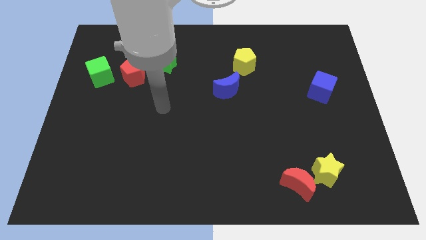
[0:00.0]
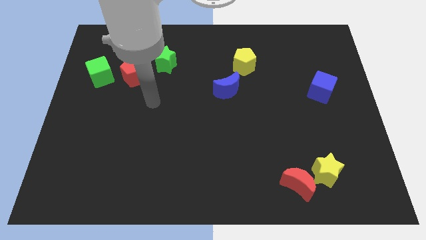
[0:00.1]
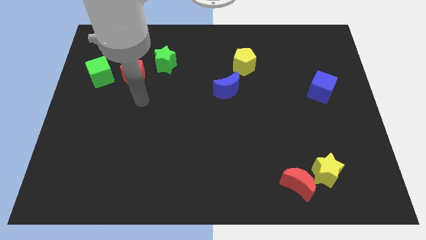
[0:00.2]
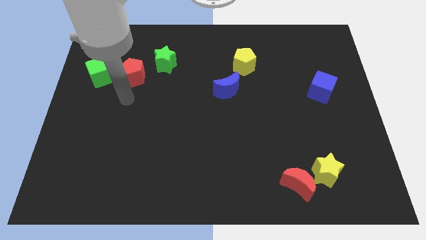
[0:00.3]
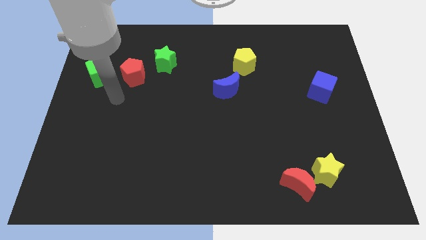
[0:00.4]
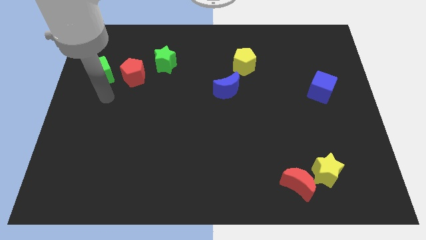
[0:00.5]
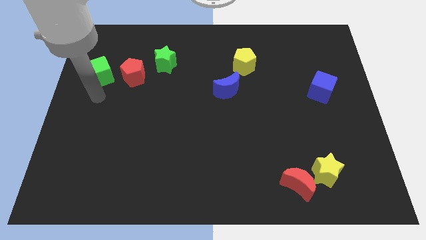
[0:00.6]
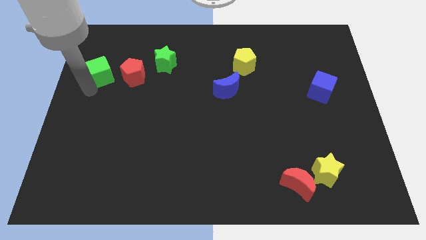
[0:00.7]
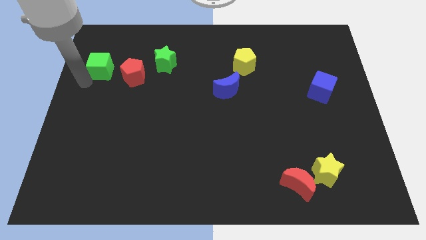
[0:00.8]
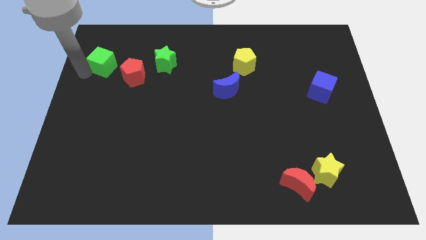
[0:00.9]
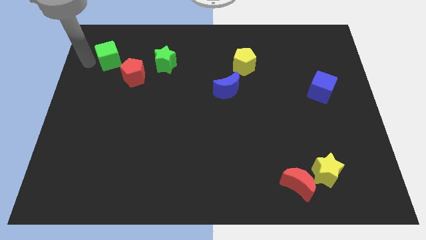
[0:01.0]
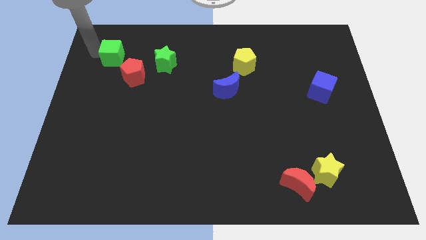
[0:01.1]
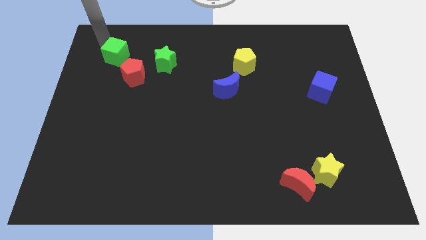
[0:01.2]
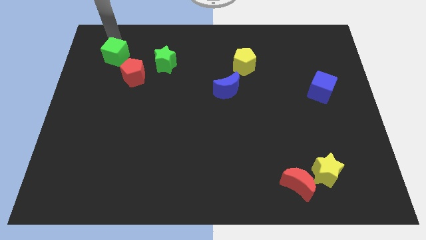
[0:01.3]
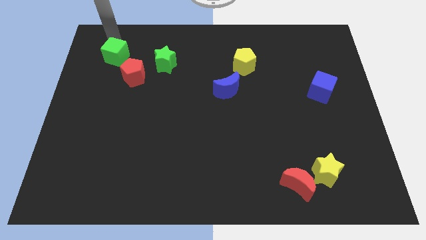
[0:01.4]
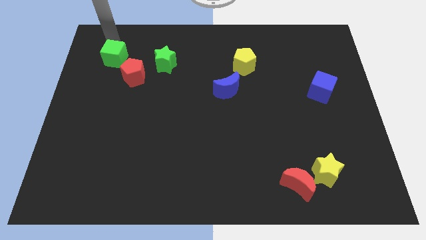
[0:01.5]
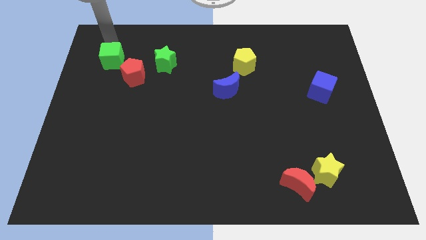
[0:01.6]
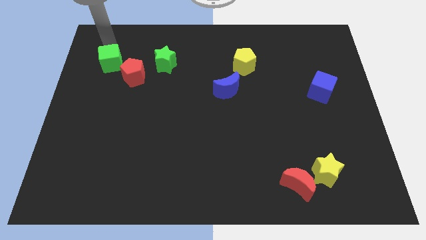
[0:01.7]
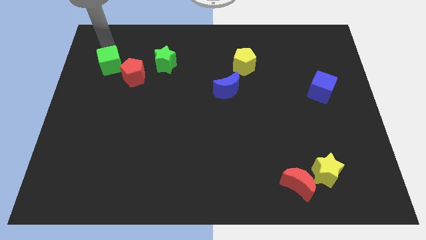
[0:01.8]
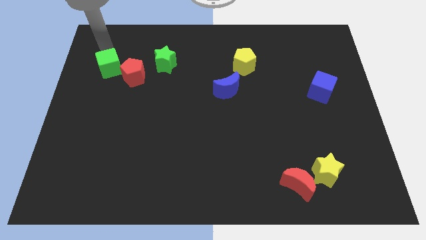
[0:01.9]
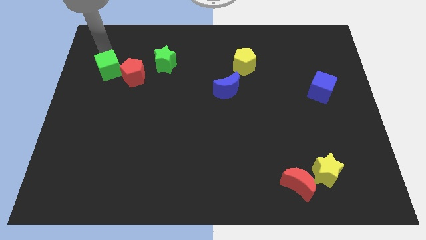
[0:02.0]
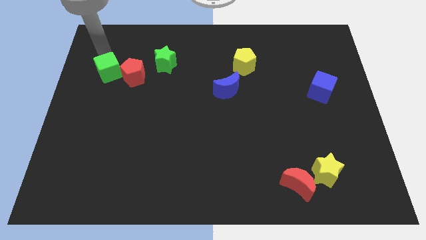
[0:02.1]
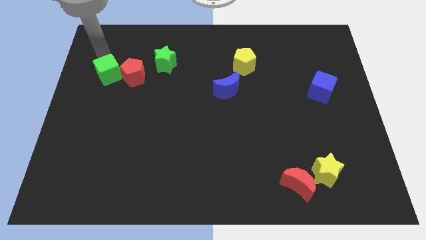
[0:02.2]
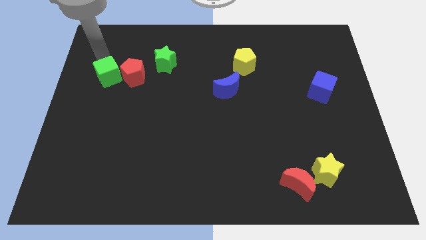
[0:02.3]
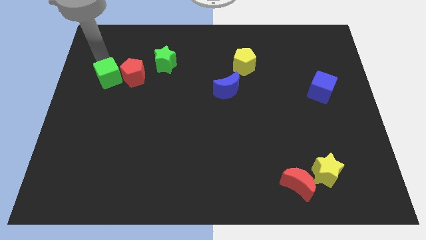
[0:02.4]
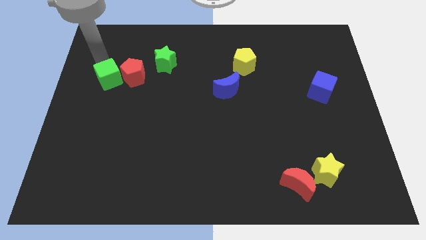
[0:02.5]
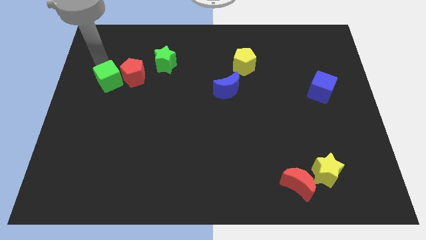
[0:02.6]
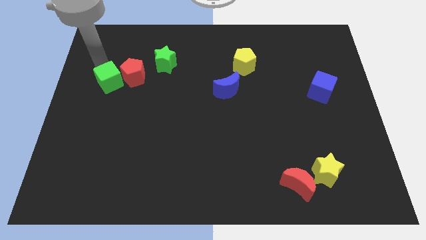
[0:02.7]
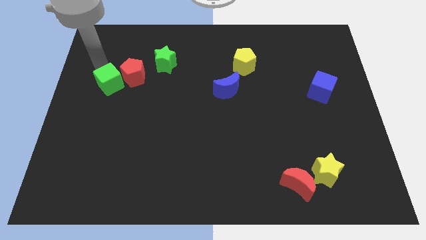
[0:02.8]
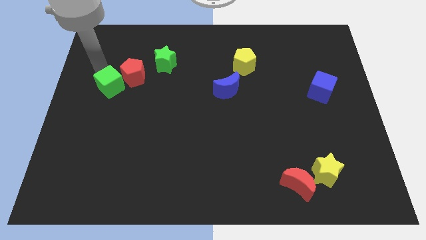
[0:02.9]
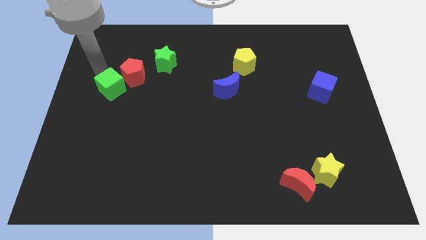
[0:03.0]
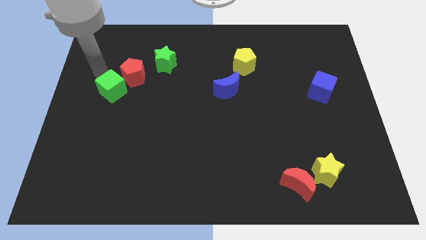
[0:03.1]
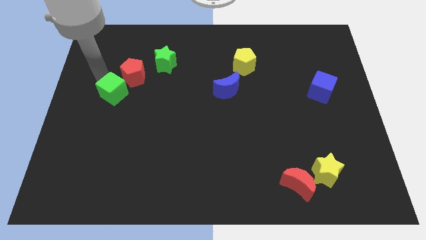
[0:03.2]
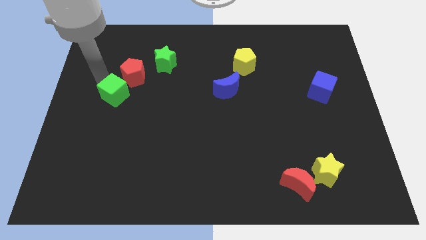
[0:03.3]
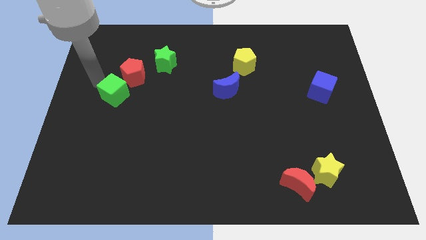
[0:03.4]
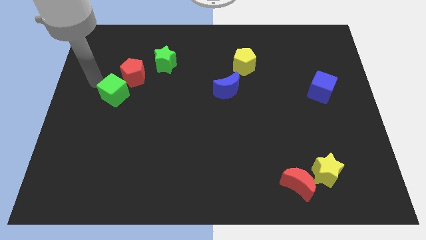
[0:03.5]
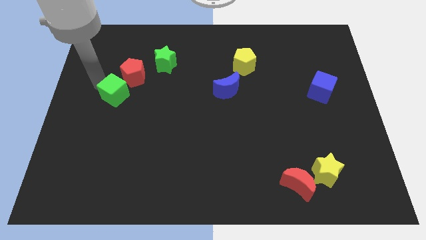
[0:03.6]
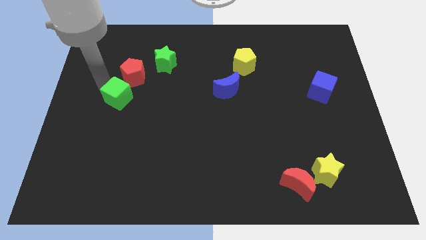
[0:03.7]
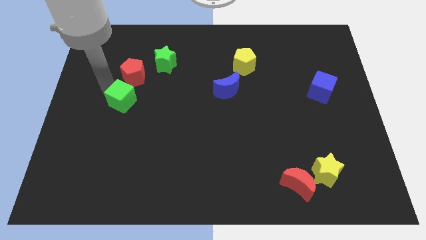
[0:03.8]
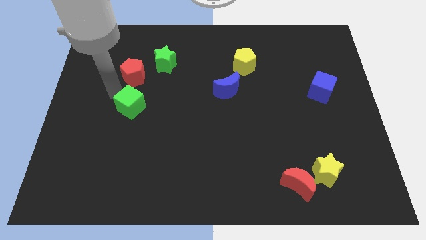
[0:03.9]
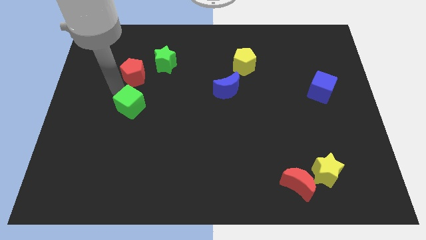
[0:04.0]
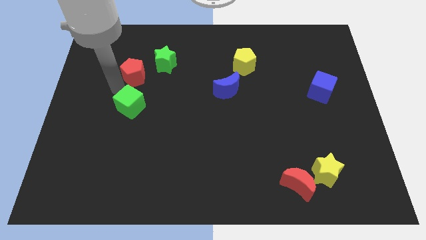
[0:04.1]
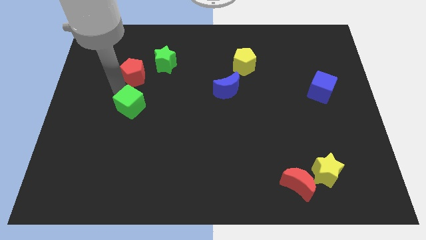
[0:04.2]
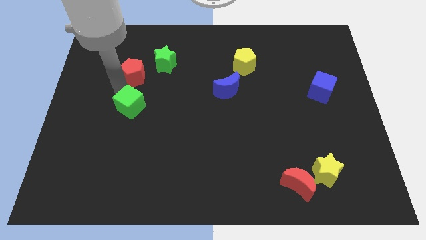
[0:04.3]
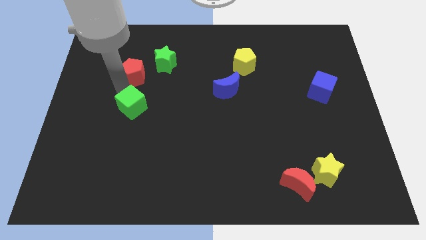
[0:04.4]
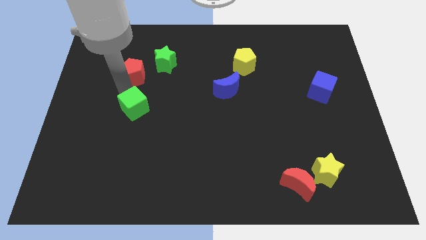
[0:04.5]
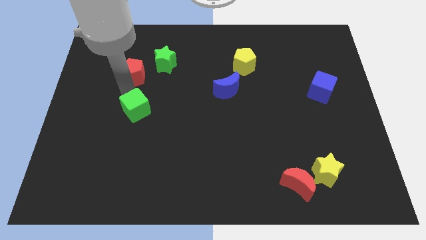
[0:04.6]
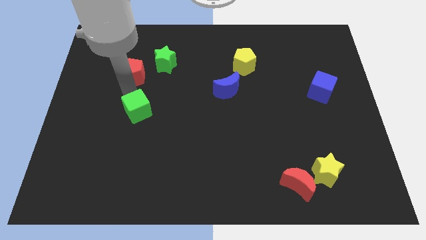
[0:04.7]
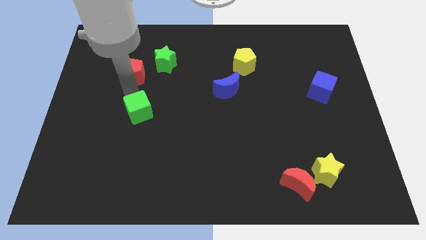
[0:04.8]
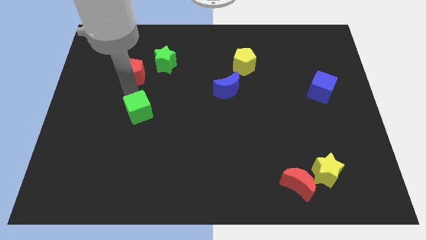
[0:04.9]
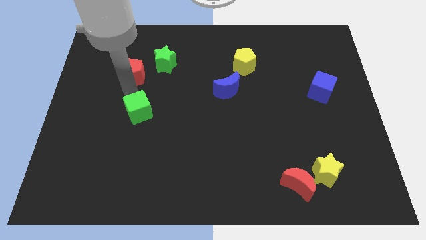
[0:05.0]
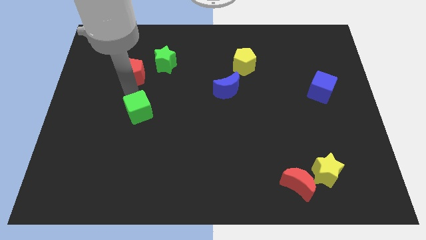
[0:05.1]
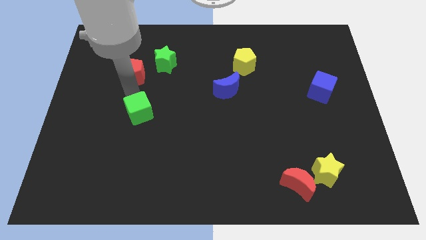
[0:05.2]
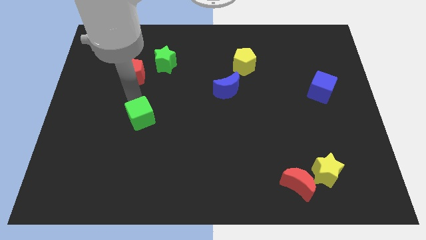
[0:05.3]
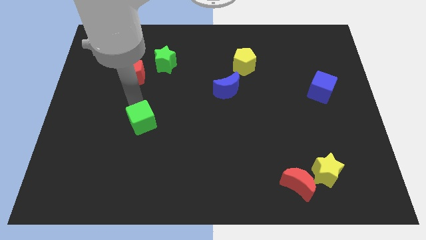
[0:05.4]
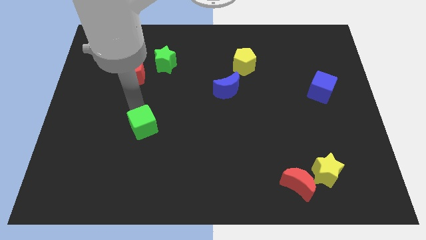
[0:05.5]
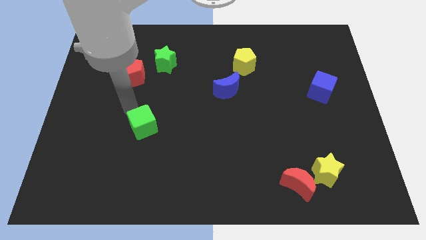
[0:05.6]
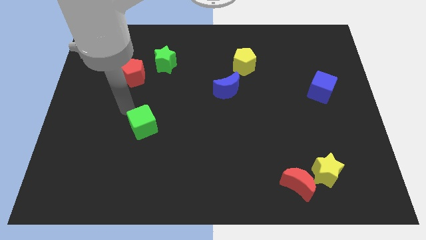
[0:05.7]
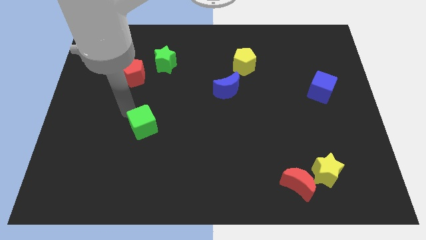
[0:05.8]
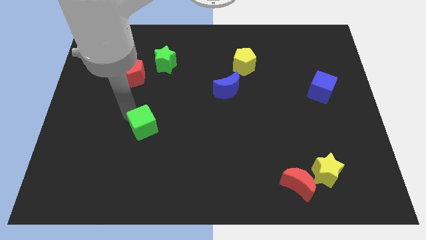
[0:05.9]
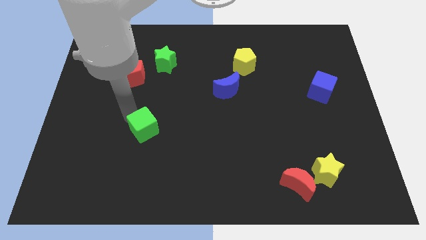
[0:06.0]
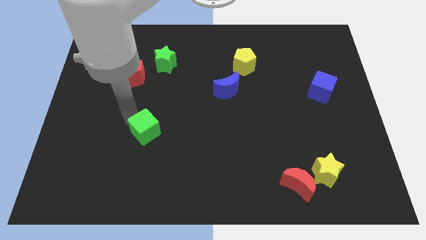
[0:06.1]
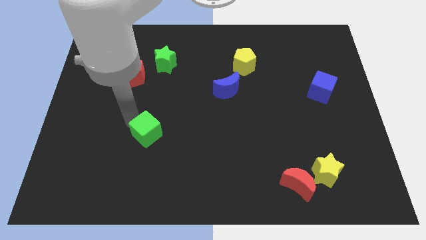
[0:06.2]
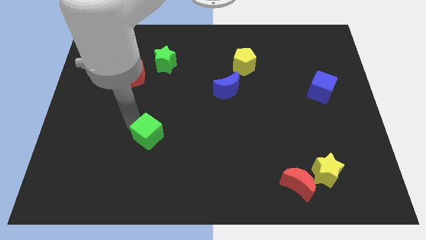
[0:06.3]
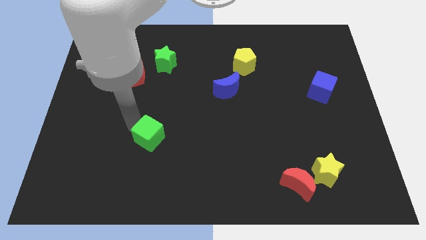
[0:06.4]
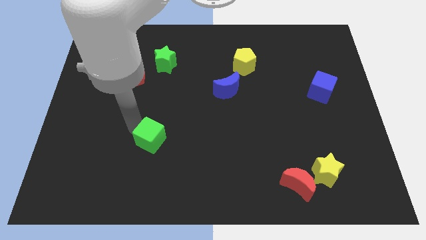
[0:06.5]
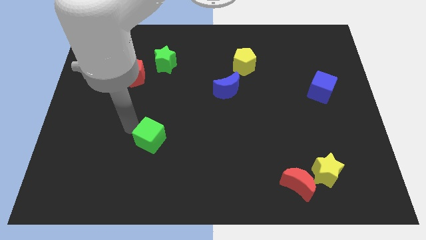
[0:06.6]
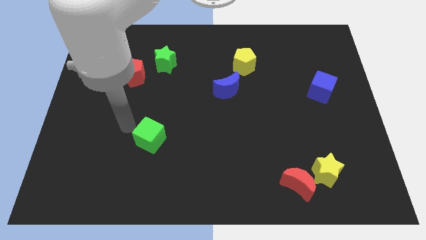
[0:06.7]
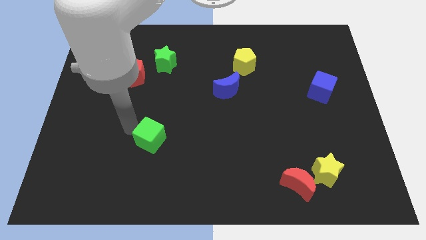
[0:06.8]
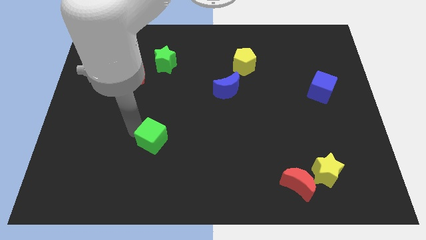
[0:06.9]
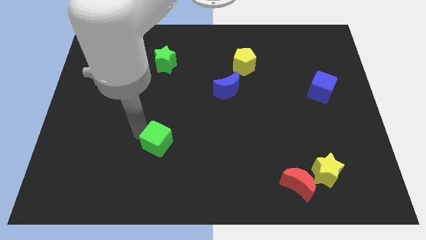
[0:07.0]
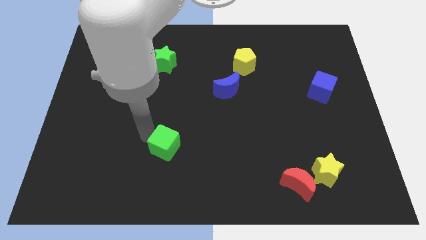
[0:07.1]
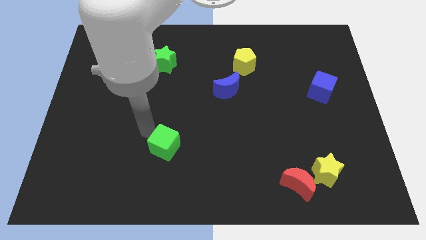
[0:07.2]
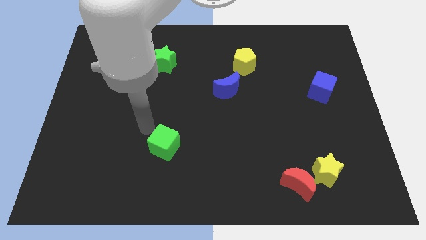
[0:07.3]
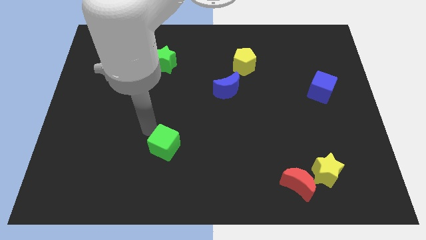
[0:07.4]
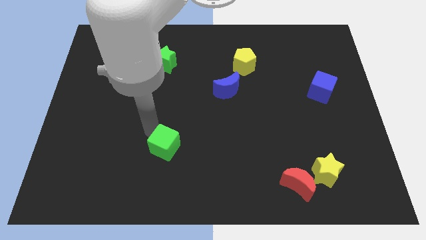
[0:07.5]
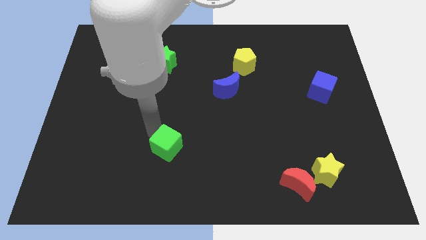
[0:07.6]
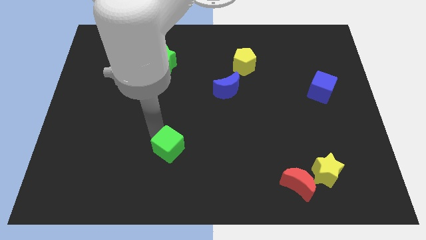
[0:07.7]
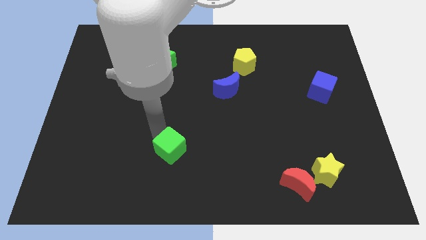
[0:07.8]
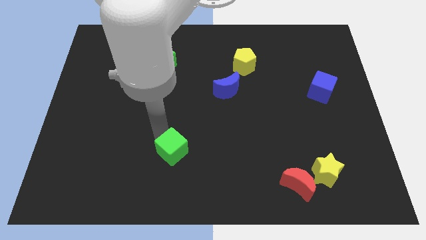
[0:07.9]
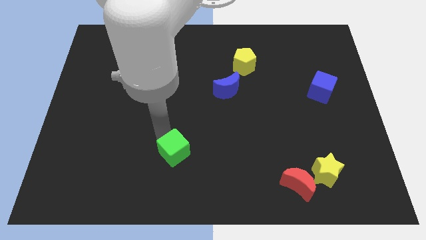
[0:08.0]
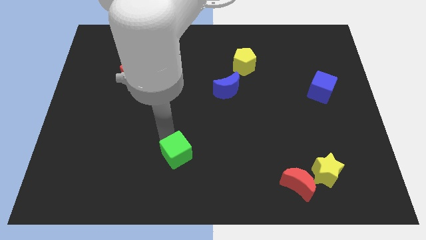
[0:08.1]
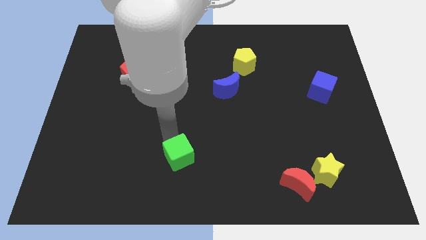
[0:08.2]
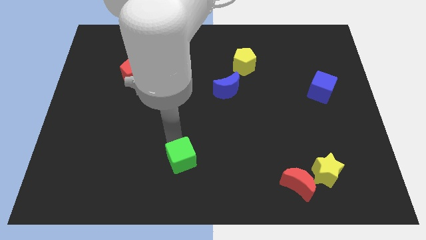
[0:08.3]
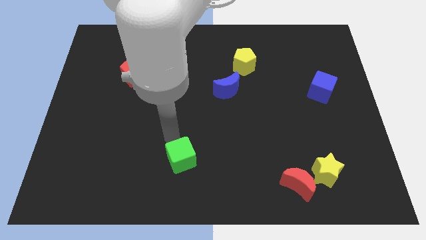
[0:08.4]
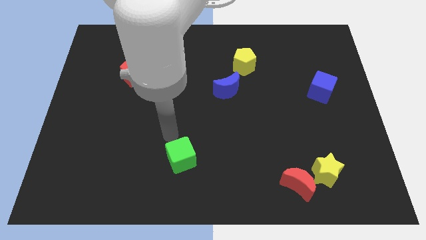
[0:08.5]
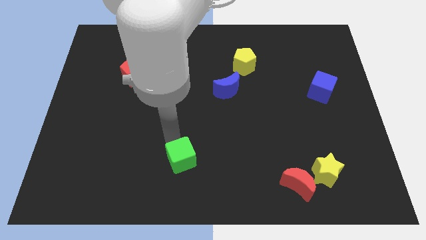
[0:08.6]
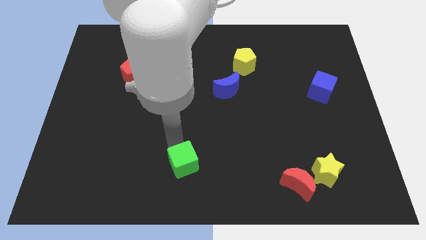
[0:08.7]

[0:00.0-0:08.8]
put the green cube to the bottom
